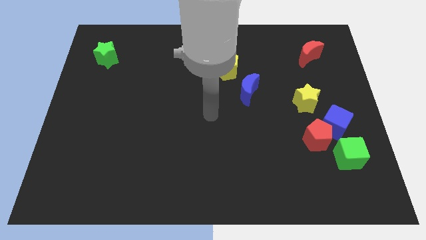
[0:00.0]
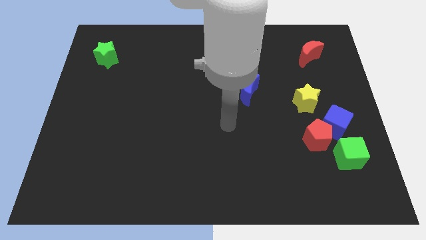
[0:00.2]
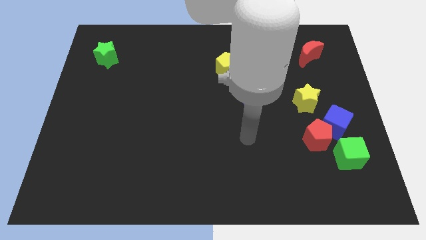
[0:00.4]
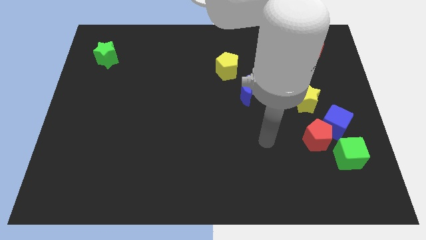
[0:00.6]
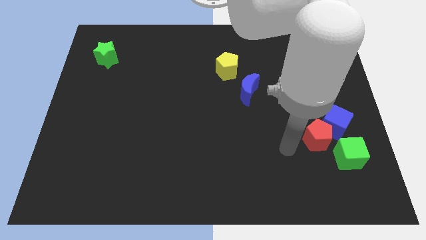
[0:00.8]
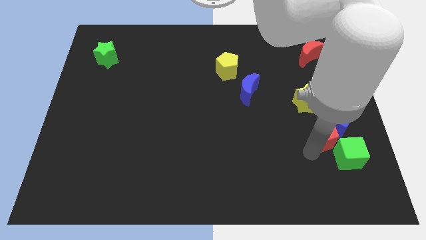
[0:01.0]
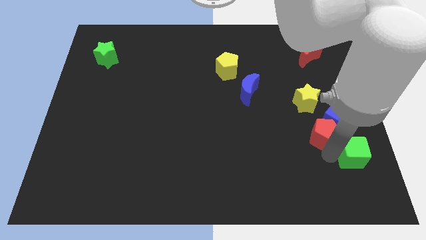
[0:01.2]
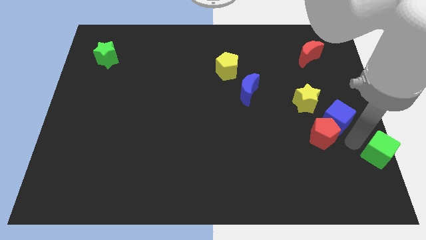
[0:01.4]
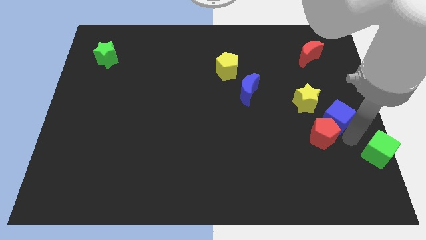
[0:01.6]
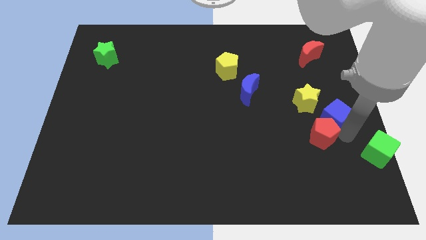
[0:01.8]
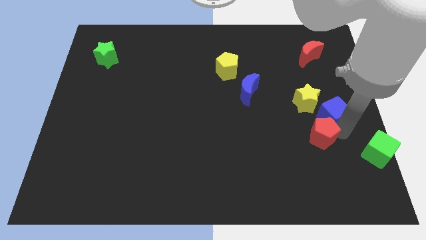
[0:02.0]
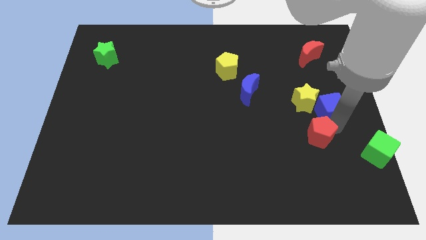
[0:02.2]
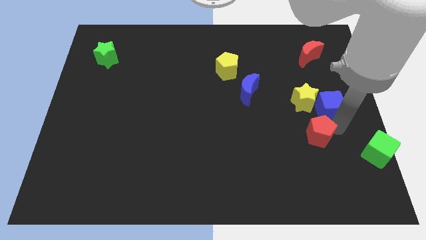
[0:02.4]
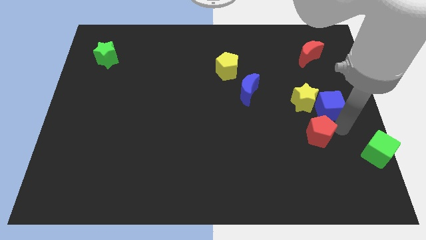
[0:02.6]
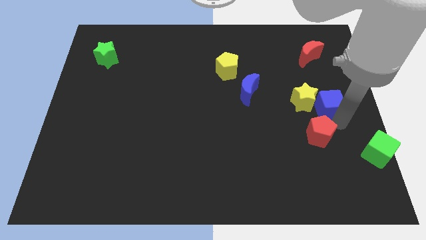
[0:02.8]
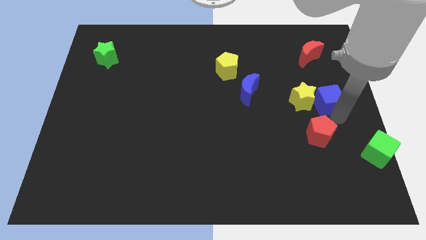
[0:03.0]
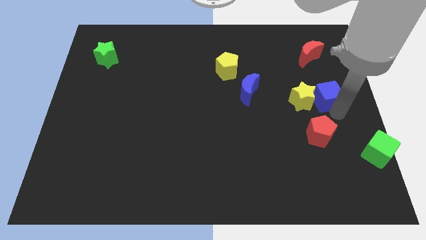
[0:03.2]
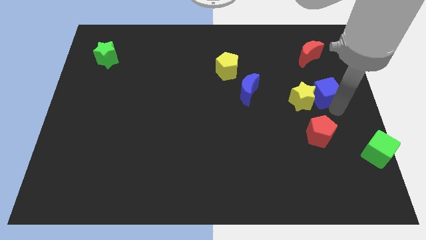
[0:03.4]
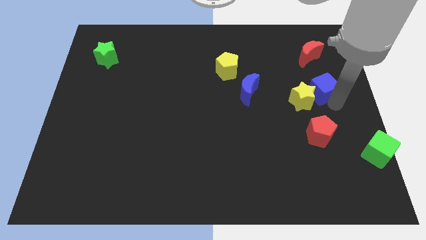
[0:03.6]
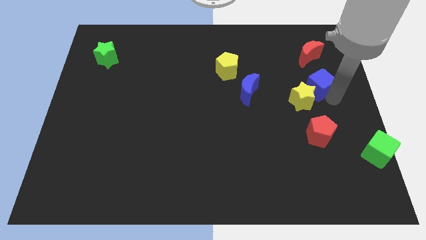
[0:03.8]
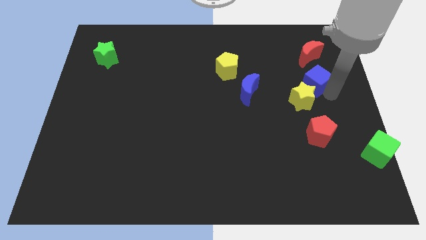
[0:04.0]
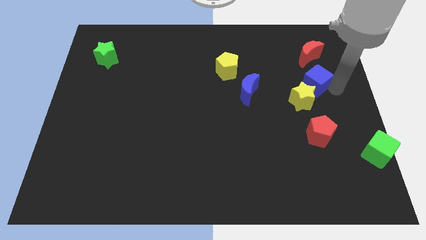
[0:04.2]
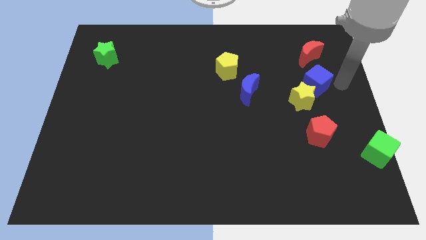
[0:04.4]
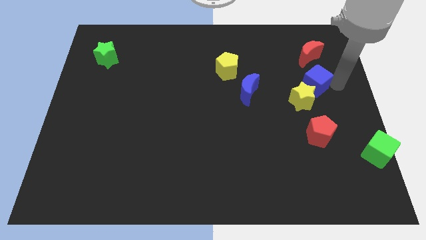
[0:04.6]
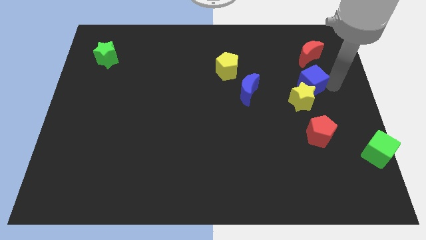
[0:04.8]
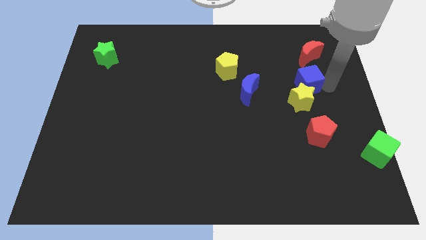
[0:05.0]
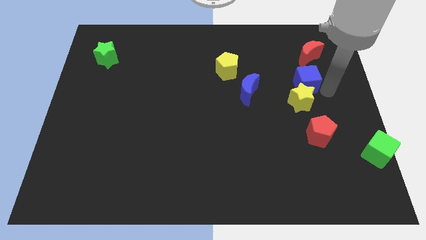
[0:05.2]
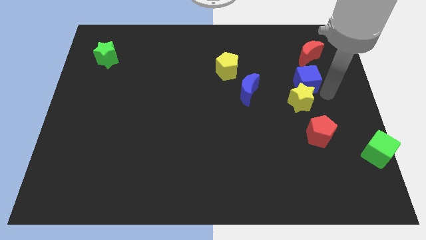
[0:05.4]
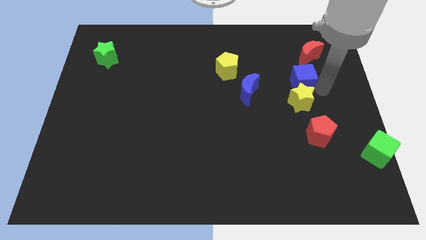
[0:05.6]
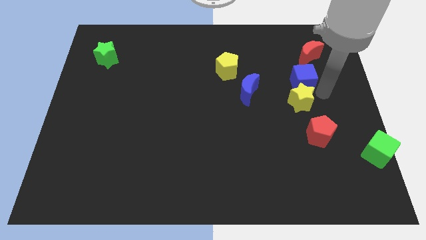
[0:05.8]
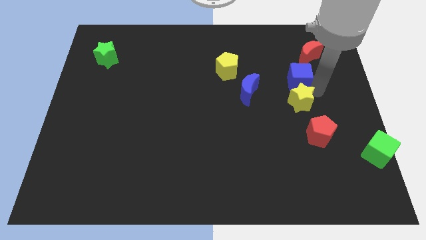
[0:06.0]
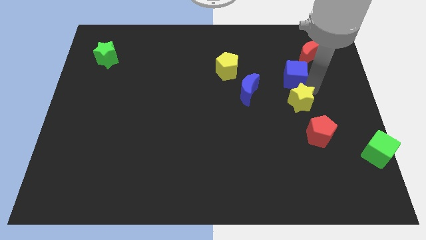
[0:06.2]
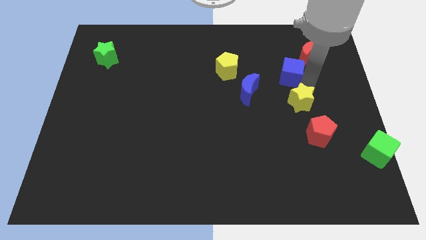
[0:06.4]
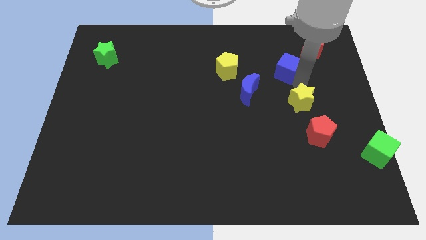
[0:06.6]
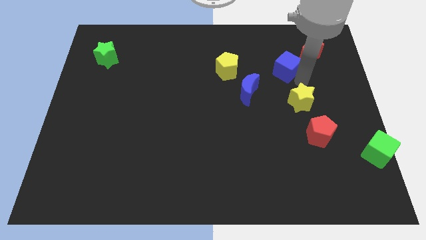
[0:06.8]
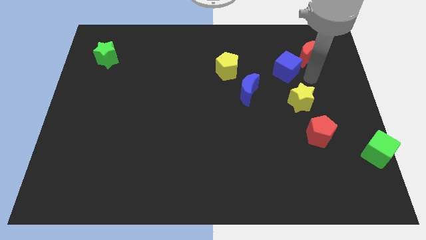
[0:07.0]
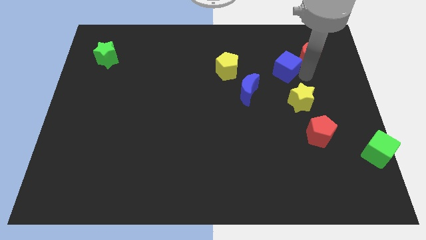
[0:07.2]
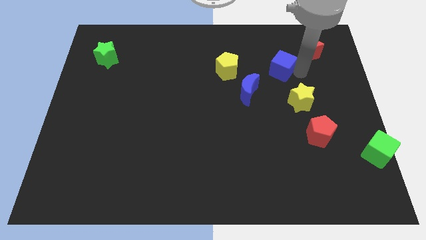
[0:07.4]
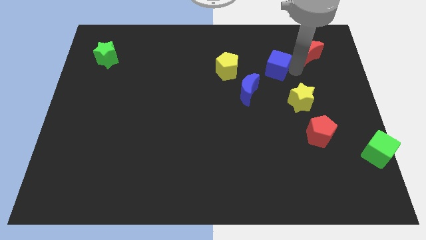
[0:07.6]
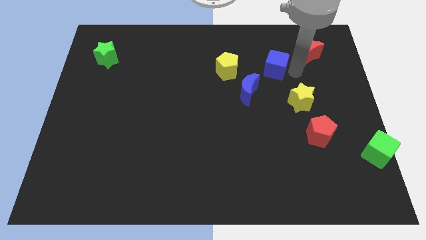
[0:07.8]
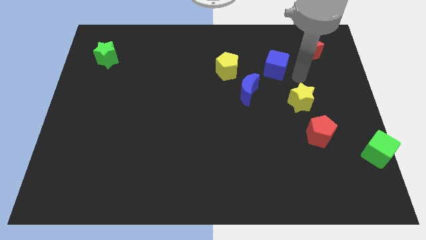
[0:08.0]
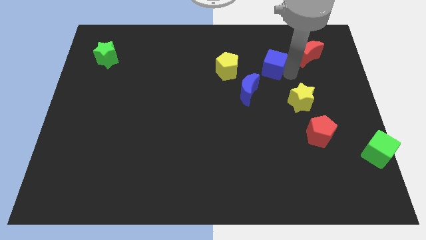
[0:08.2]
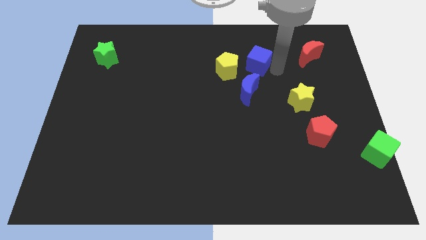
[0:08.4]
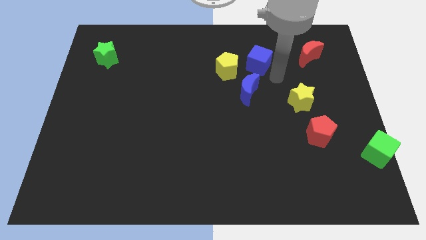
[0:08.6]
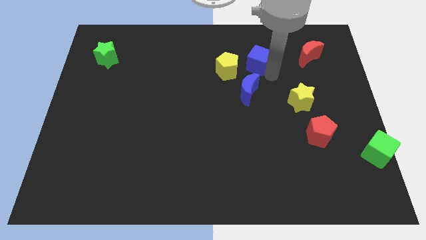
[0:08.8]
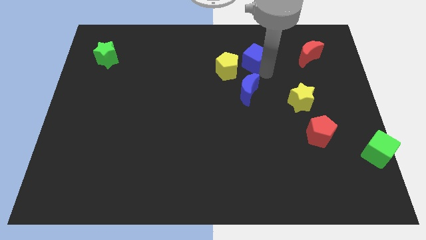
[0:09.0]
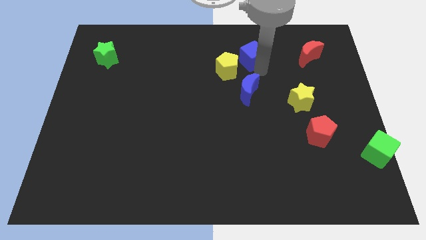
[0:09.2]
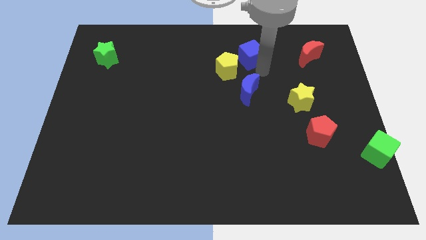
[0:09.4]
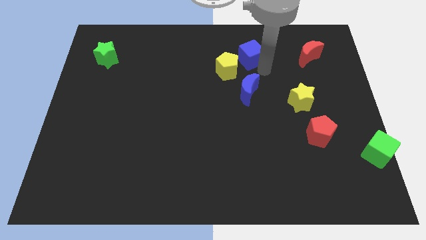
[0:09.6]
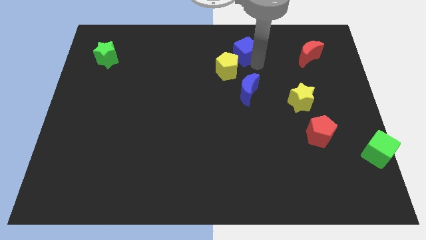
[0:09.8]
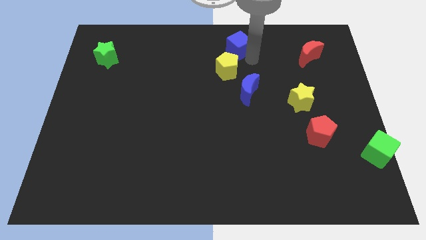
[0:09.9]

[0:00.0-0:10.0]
put the blue cube to the top side
